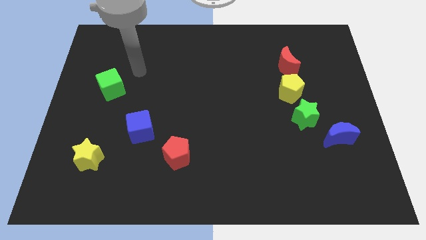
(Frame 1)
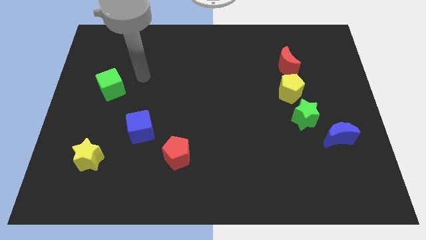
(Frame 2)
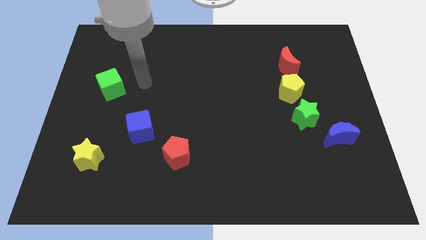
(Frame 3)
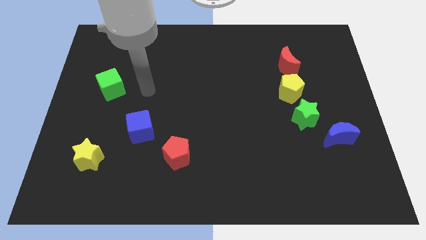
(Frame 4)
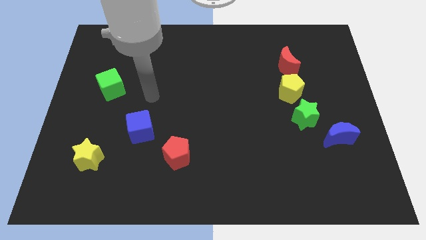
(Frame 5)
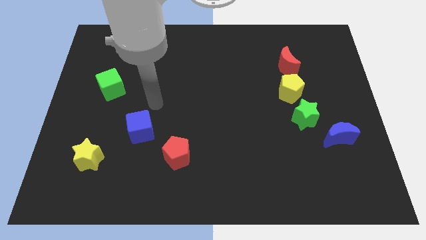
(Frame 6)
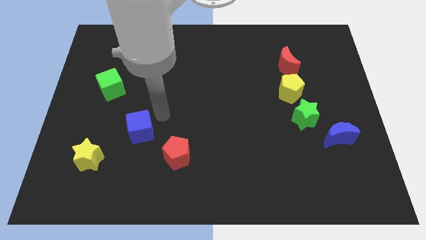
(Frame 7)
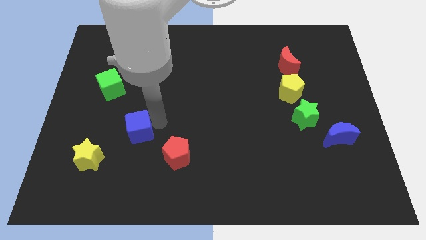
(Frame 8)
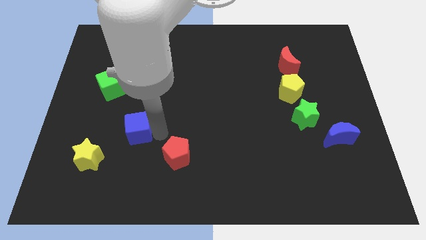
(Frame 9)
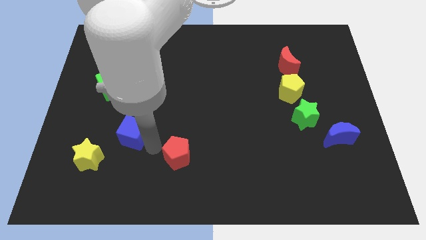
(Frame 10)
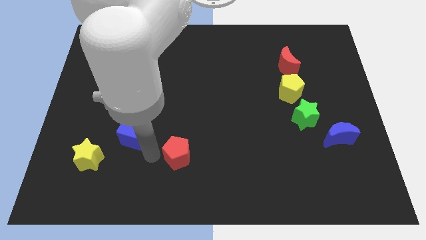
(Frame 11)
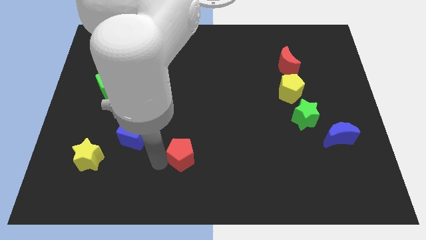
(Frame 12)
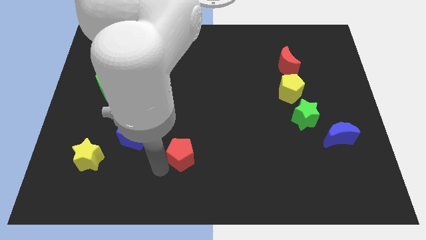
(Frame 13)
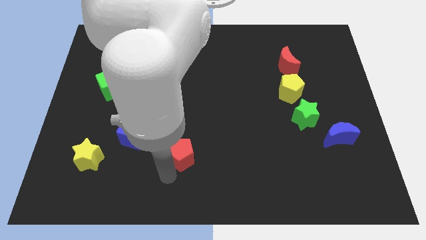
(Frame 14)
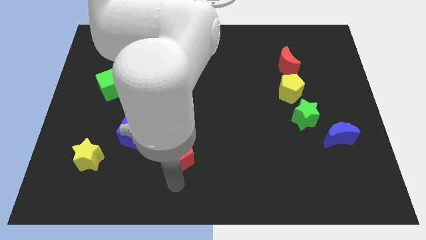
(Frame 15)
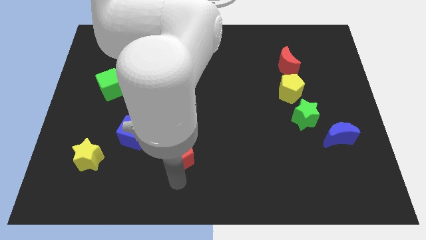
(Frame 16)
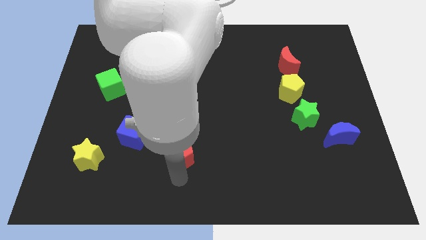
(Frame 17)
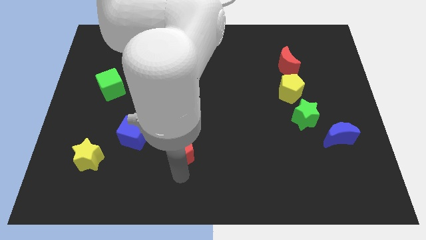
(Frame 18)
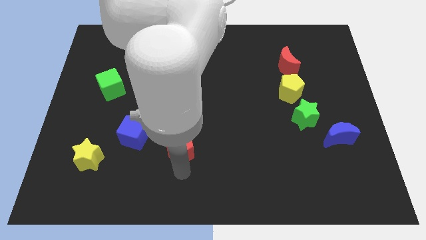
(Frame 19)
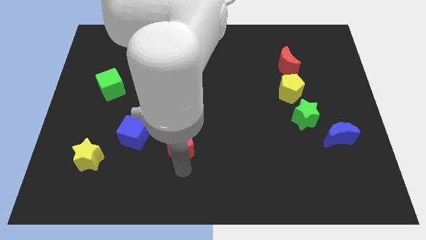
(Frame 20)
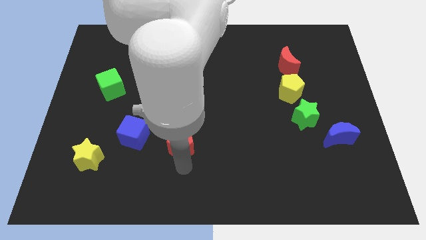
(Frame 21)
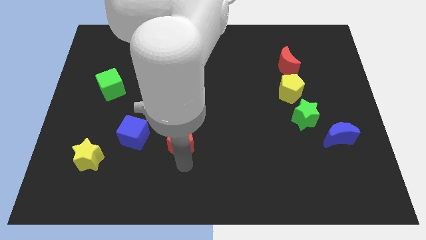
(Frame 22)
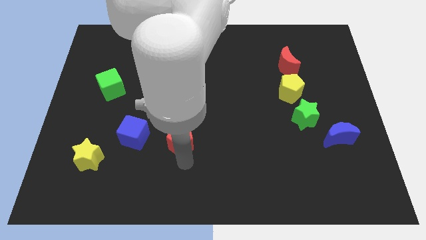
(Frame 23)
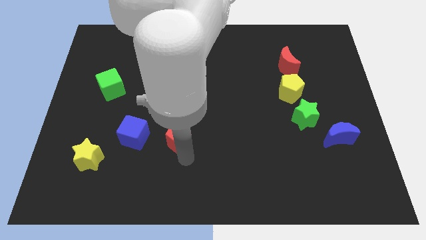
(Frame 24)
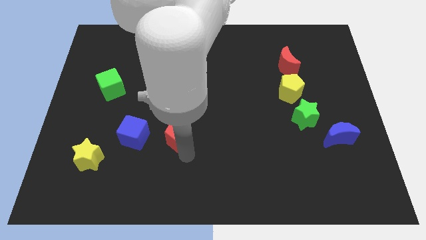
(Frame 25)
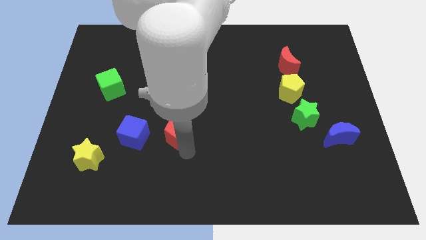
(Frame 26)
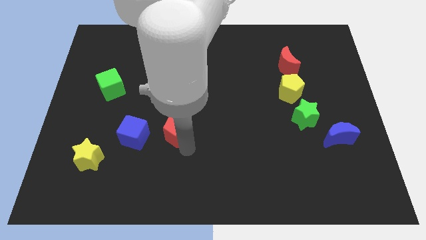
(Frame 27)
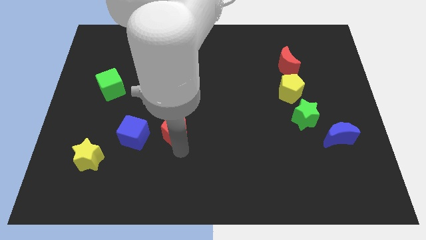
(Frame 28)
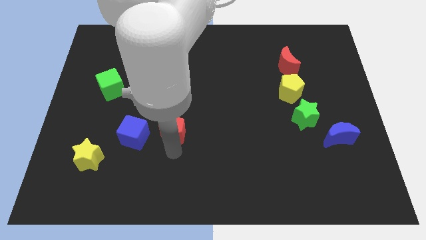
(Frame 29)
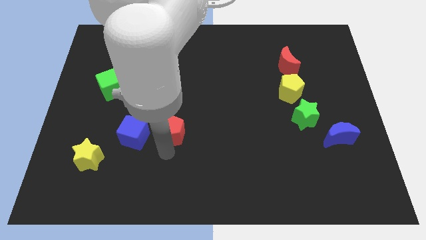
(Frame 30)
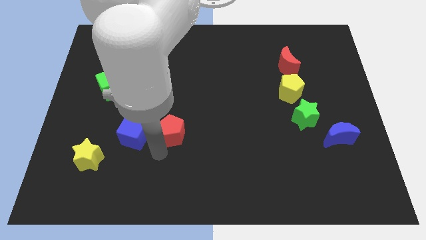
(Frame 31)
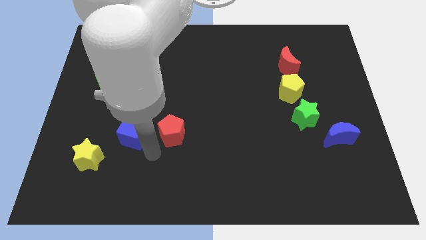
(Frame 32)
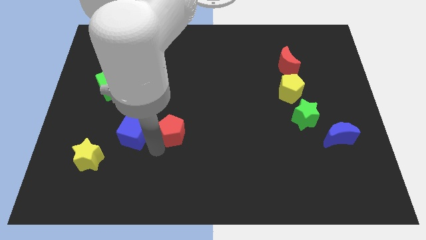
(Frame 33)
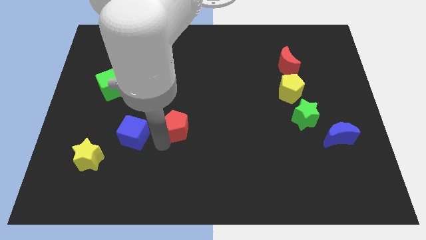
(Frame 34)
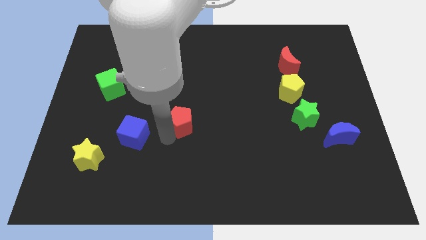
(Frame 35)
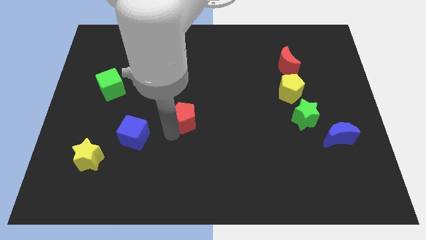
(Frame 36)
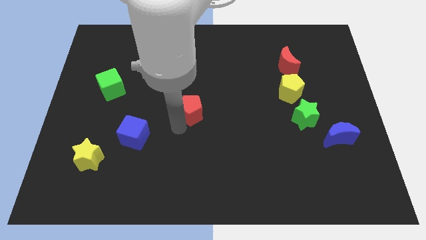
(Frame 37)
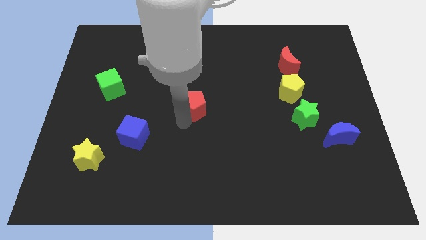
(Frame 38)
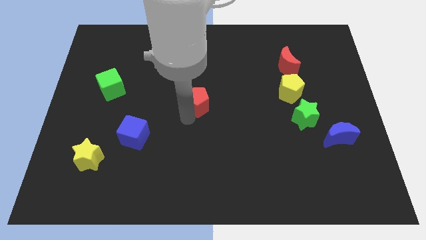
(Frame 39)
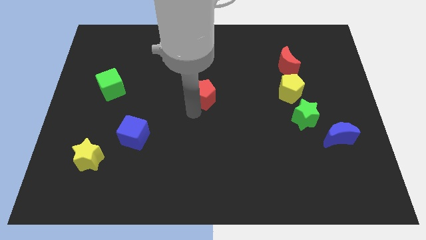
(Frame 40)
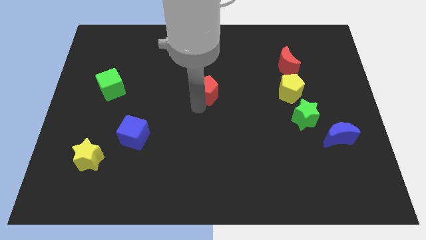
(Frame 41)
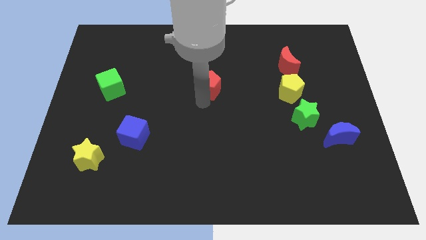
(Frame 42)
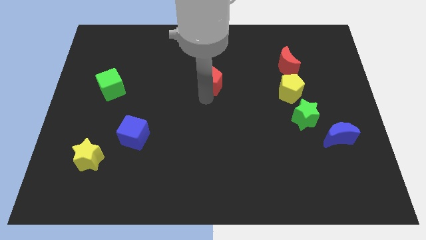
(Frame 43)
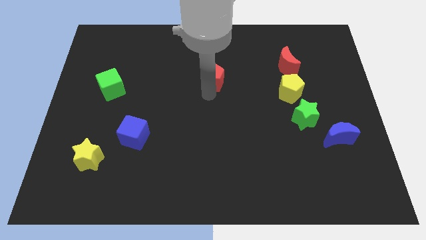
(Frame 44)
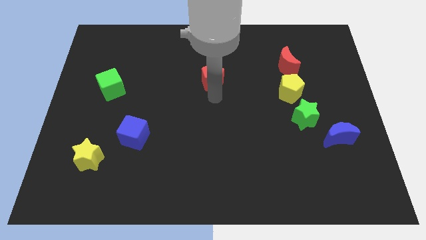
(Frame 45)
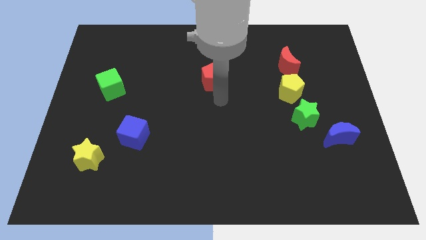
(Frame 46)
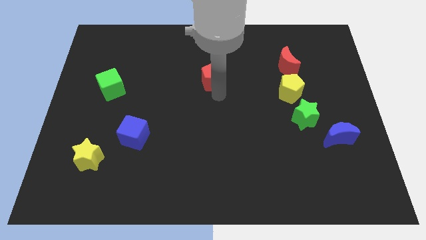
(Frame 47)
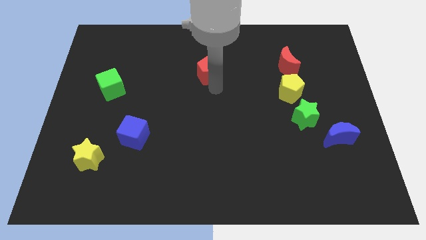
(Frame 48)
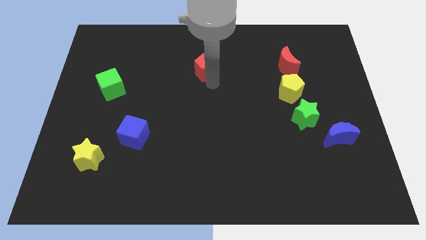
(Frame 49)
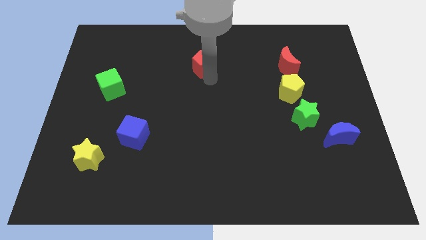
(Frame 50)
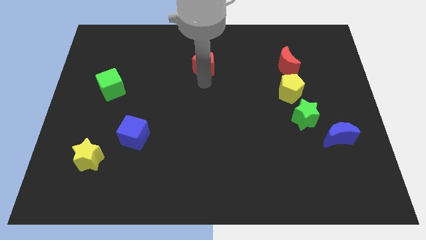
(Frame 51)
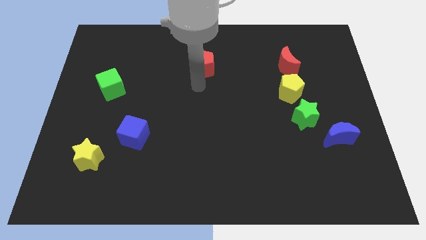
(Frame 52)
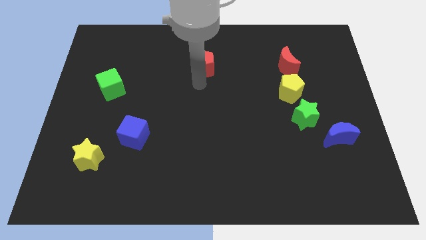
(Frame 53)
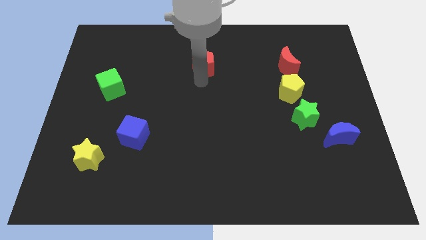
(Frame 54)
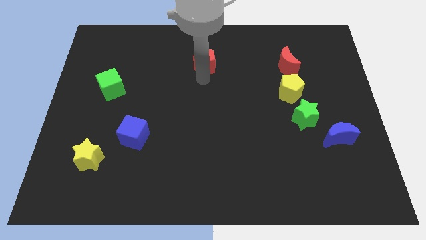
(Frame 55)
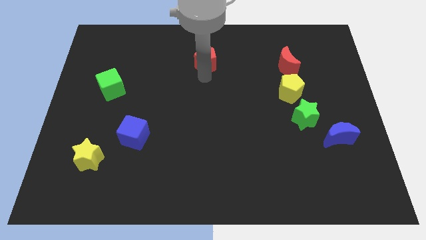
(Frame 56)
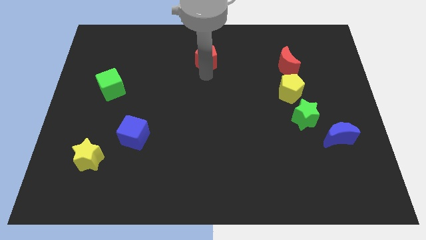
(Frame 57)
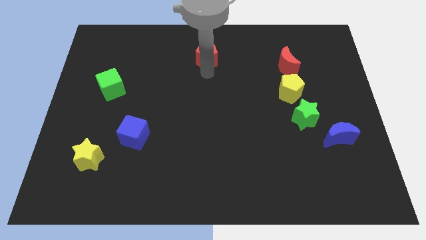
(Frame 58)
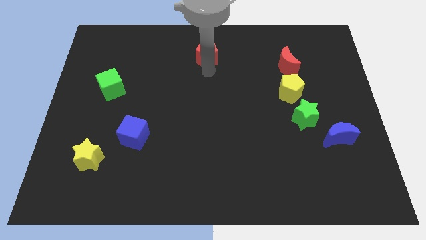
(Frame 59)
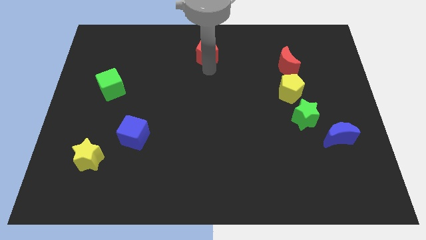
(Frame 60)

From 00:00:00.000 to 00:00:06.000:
push the red pentagon to the top side

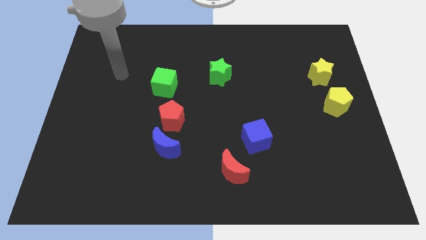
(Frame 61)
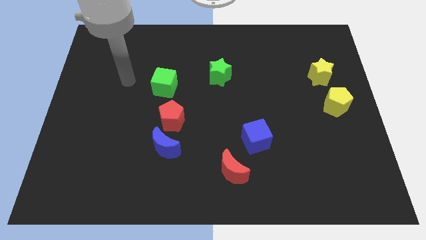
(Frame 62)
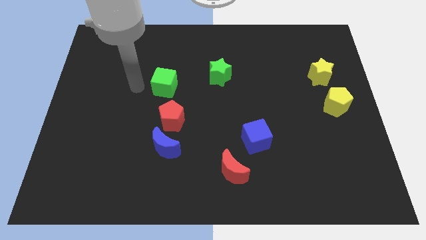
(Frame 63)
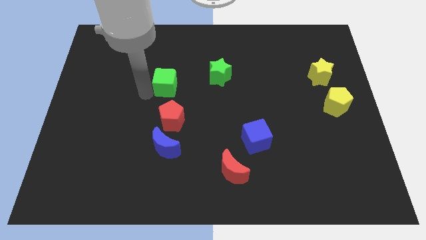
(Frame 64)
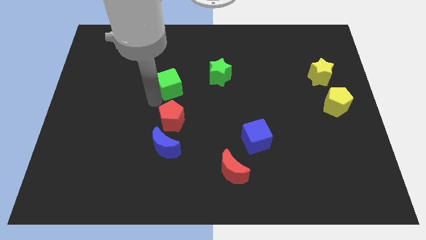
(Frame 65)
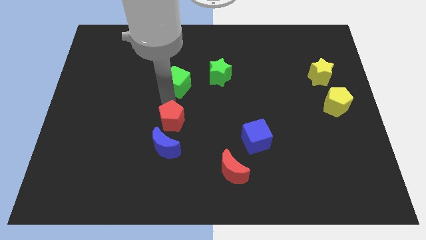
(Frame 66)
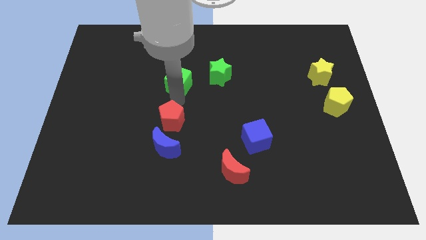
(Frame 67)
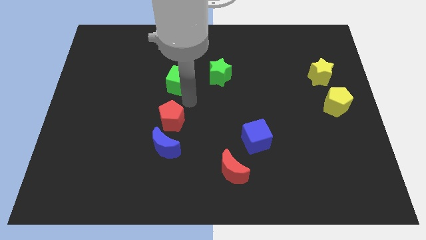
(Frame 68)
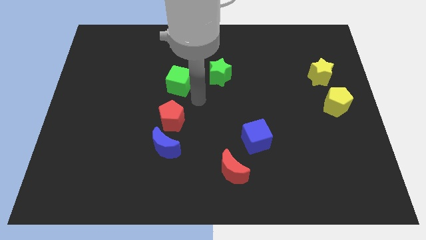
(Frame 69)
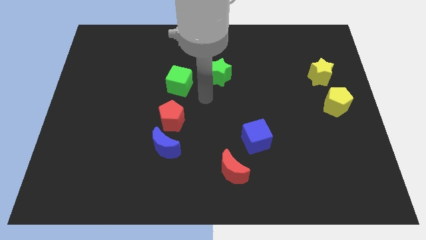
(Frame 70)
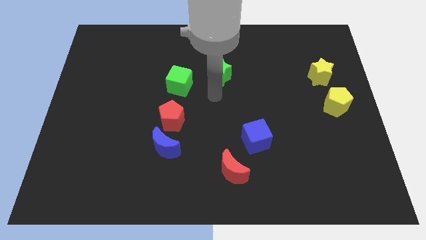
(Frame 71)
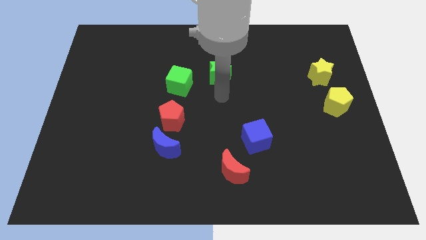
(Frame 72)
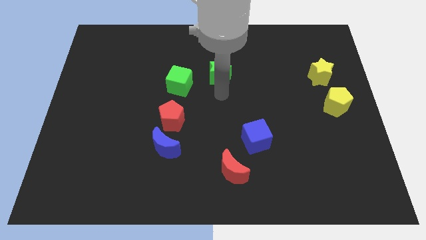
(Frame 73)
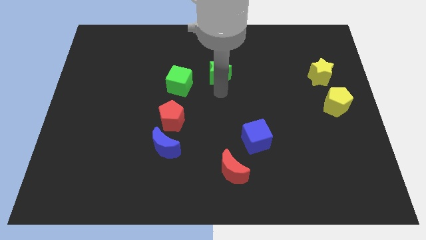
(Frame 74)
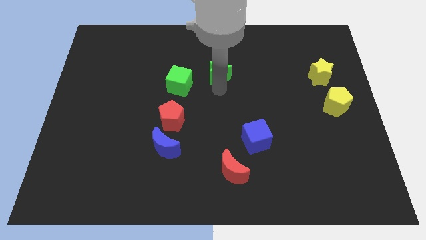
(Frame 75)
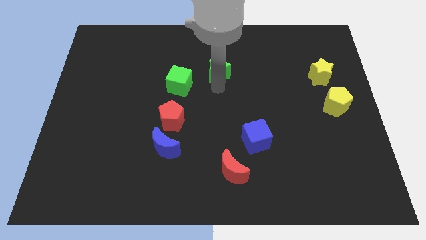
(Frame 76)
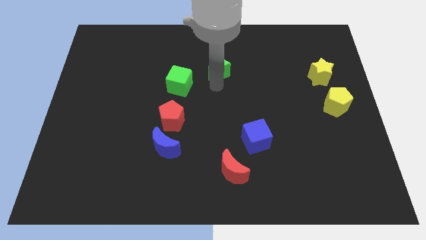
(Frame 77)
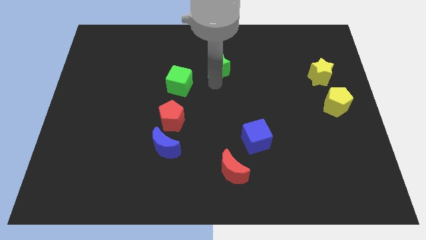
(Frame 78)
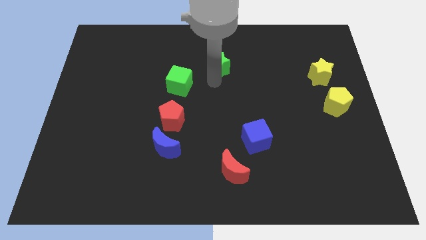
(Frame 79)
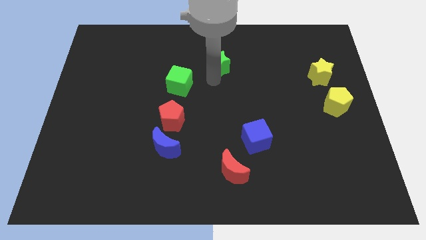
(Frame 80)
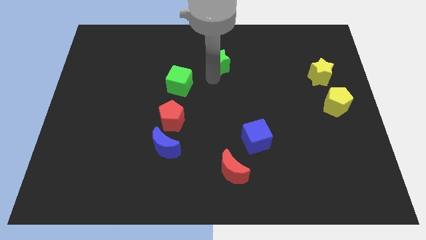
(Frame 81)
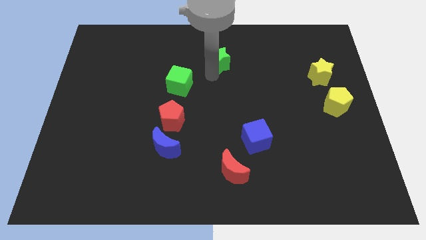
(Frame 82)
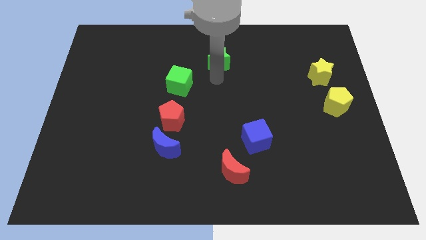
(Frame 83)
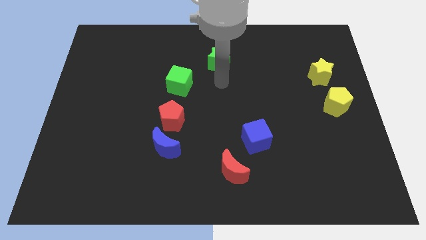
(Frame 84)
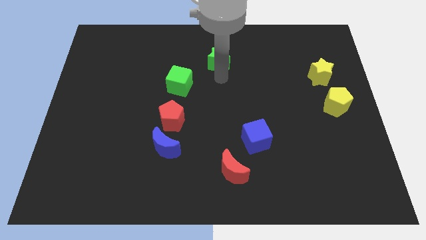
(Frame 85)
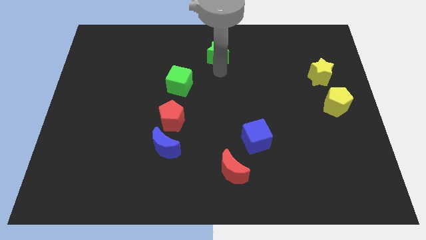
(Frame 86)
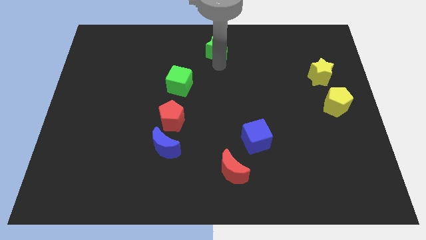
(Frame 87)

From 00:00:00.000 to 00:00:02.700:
put the green star to the towards your base
